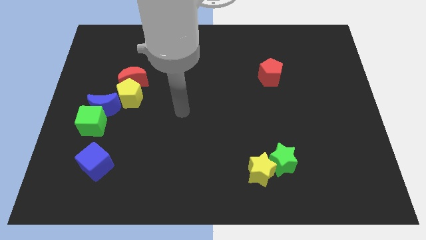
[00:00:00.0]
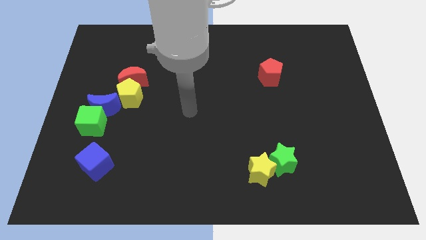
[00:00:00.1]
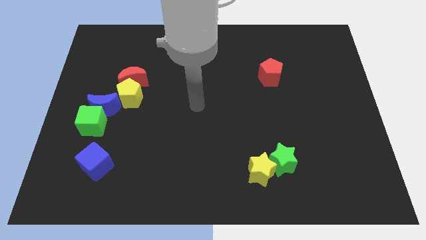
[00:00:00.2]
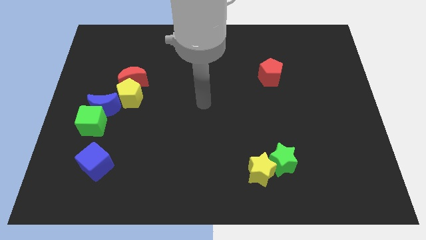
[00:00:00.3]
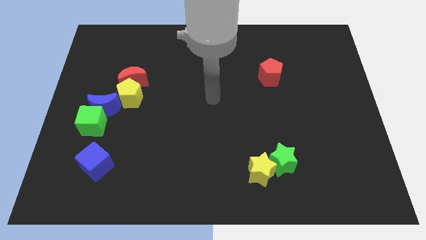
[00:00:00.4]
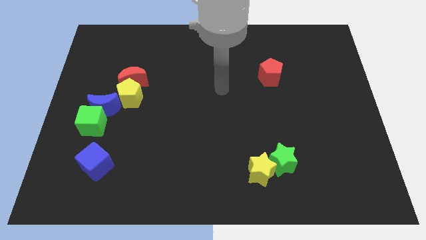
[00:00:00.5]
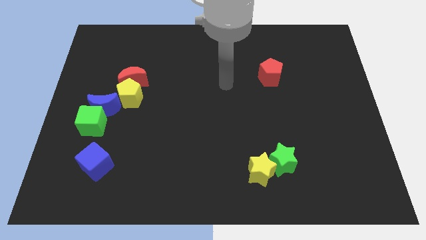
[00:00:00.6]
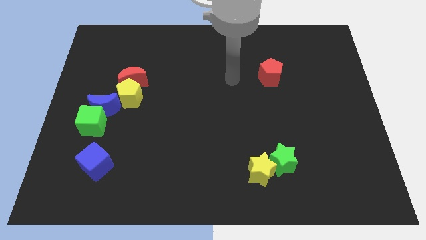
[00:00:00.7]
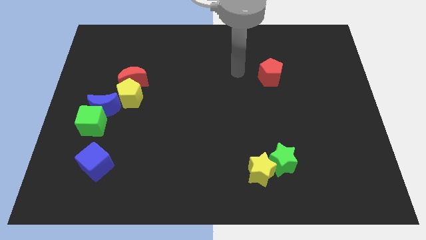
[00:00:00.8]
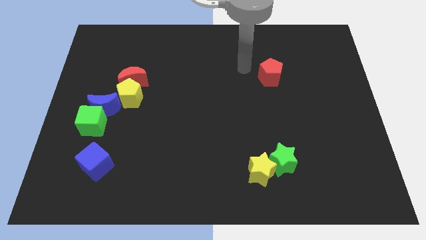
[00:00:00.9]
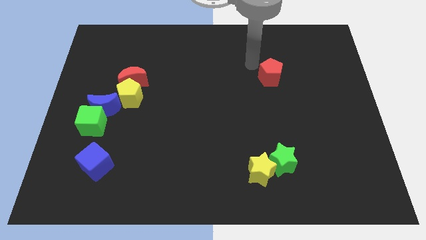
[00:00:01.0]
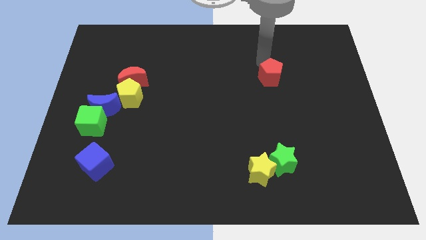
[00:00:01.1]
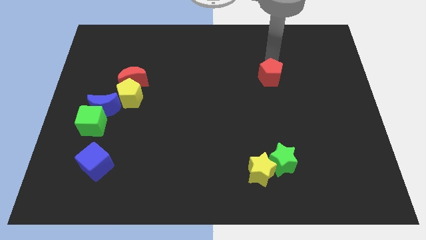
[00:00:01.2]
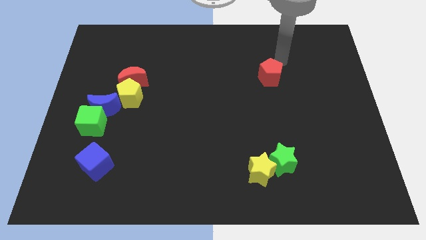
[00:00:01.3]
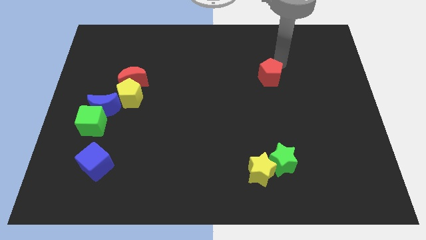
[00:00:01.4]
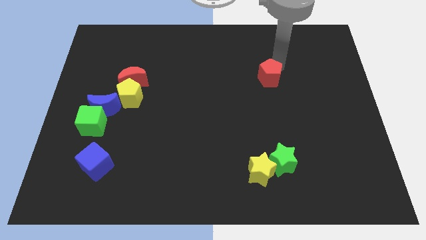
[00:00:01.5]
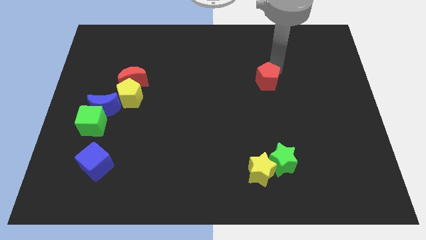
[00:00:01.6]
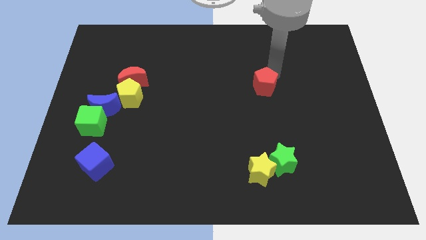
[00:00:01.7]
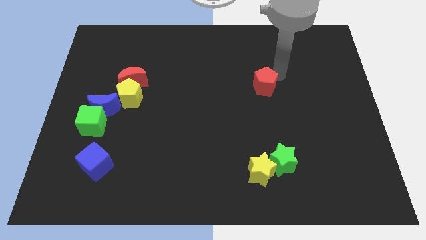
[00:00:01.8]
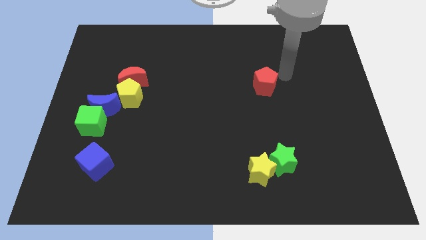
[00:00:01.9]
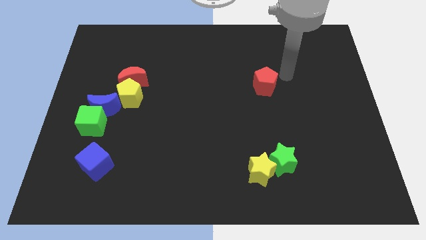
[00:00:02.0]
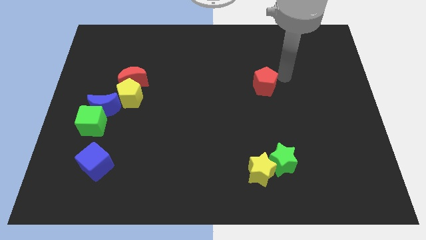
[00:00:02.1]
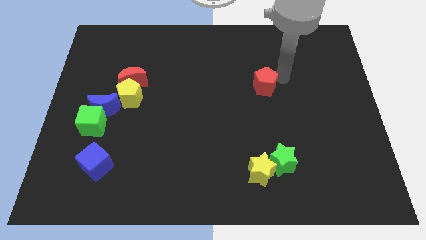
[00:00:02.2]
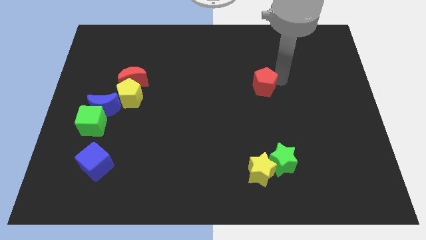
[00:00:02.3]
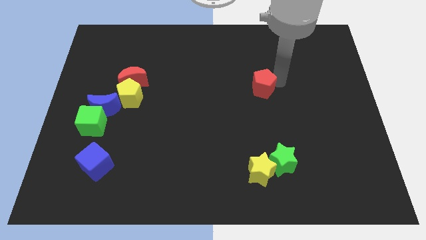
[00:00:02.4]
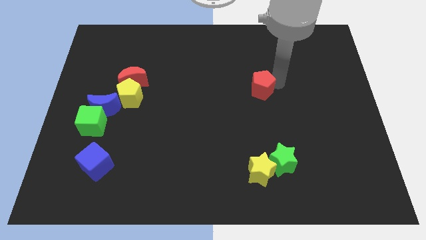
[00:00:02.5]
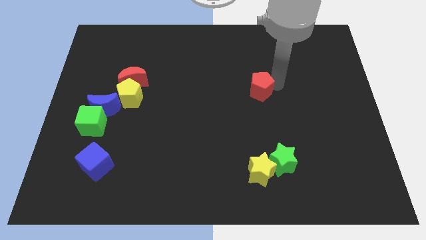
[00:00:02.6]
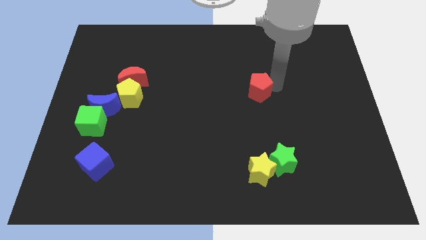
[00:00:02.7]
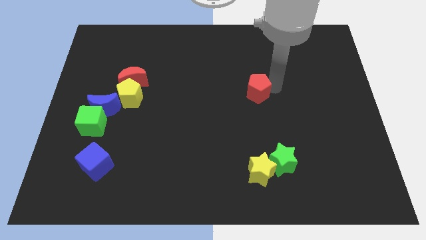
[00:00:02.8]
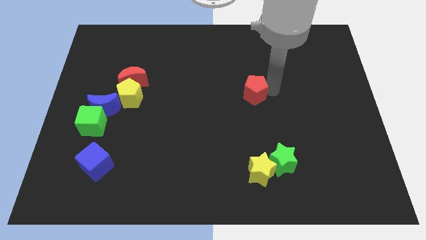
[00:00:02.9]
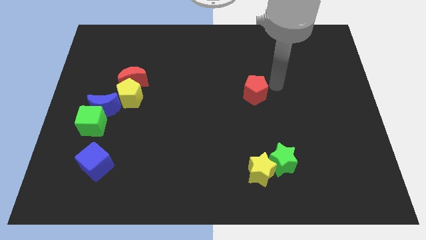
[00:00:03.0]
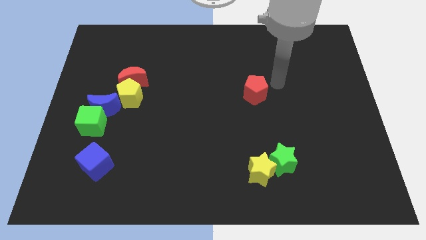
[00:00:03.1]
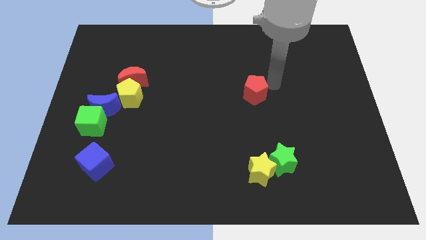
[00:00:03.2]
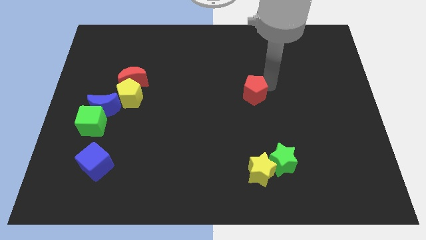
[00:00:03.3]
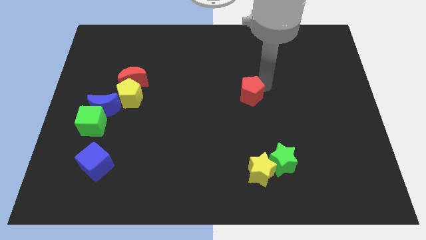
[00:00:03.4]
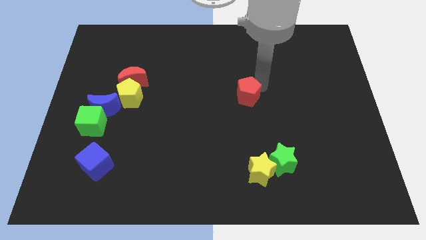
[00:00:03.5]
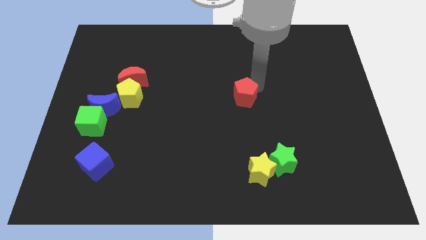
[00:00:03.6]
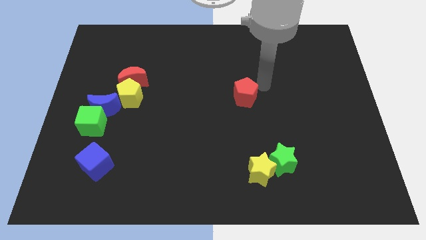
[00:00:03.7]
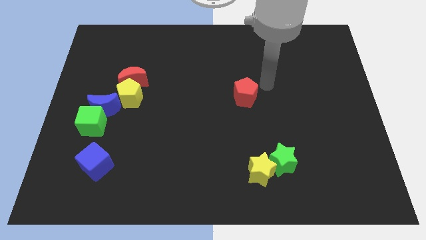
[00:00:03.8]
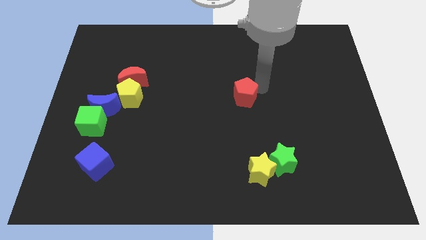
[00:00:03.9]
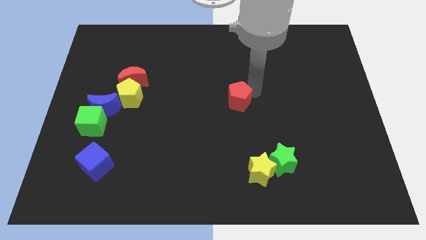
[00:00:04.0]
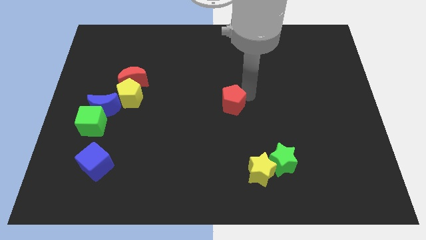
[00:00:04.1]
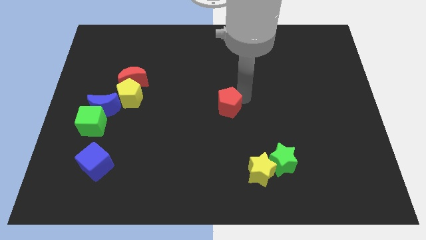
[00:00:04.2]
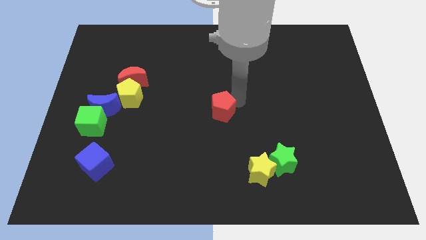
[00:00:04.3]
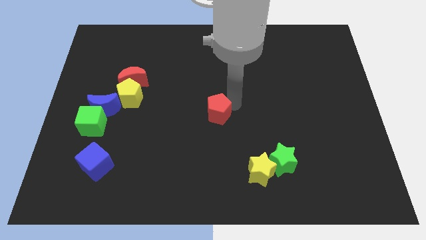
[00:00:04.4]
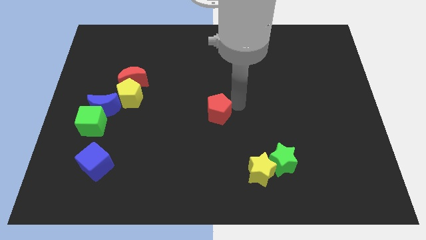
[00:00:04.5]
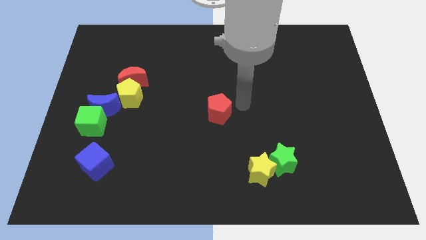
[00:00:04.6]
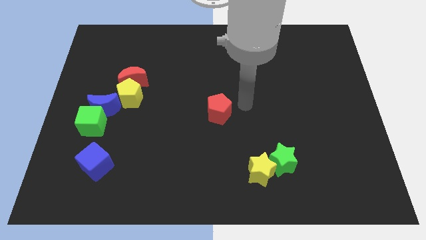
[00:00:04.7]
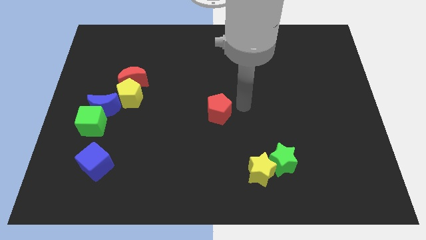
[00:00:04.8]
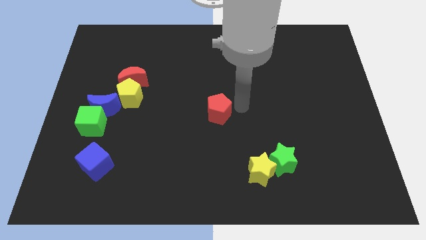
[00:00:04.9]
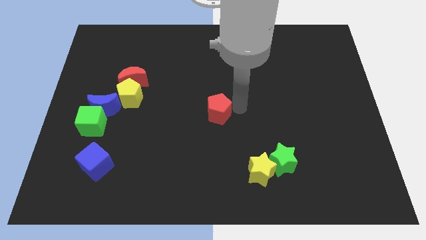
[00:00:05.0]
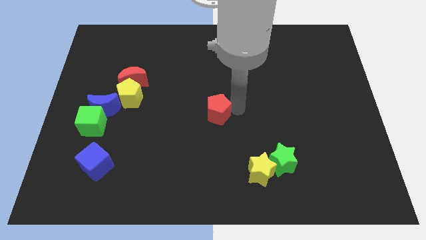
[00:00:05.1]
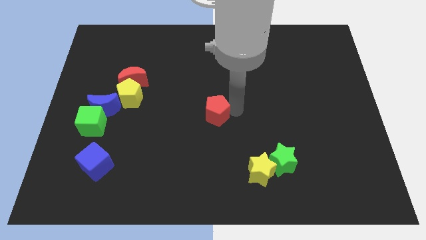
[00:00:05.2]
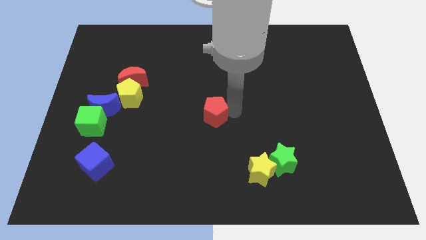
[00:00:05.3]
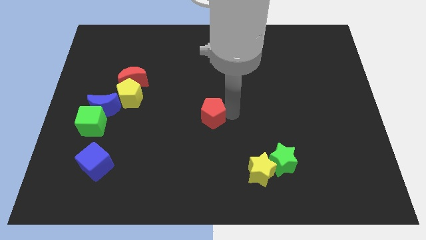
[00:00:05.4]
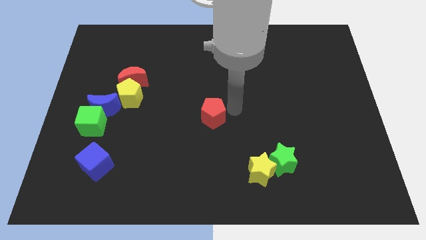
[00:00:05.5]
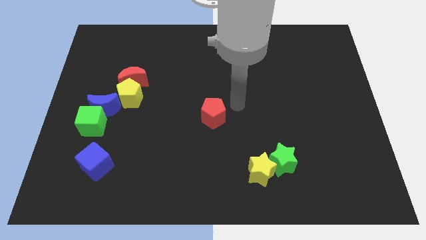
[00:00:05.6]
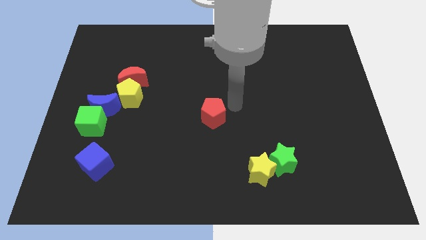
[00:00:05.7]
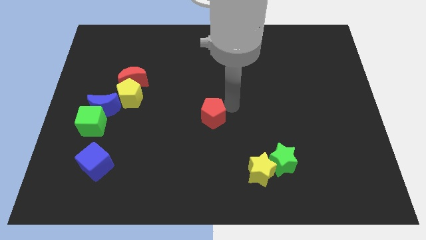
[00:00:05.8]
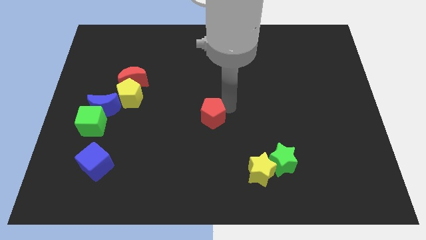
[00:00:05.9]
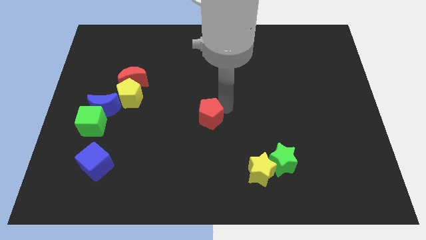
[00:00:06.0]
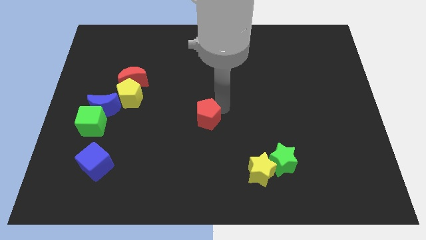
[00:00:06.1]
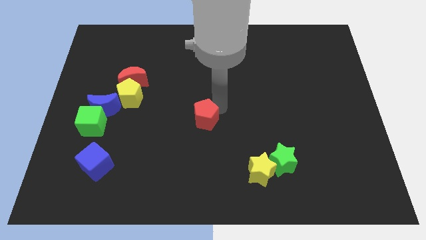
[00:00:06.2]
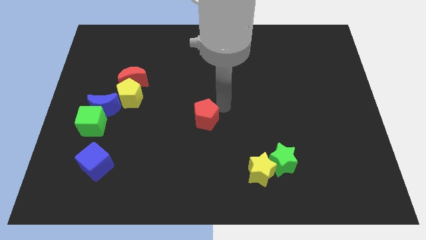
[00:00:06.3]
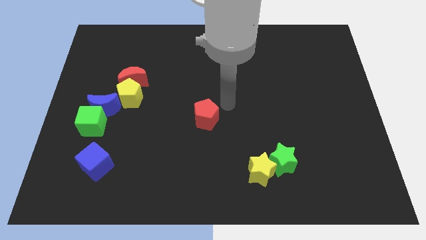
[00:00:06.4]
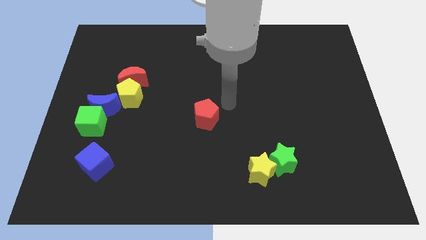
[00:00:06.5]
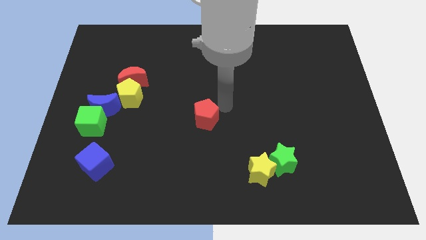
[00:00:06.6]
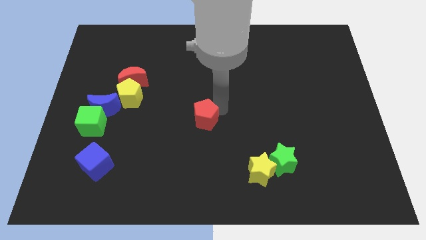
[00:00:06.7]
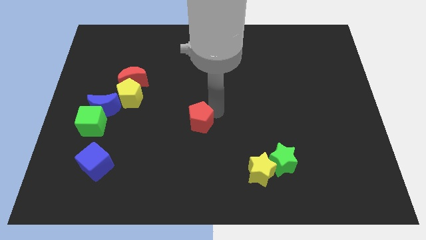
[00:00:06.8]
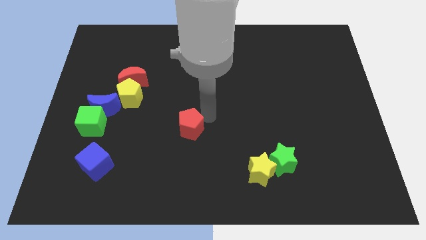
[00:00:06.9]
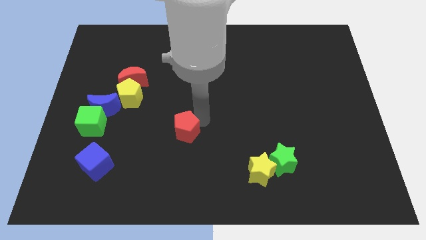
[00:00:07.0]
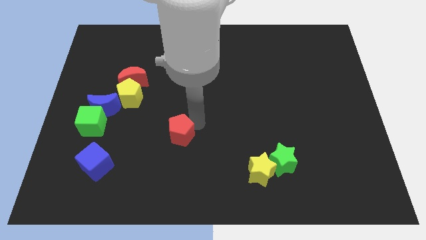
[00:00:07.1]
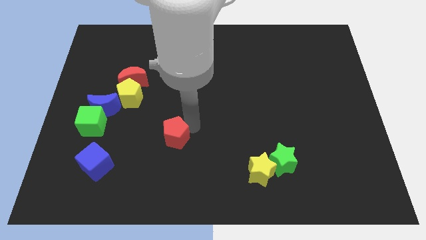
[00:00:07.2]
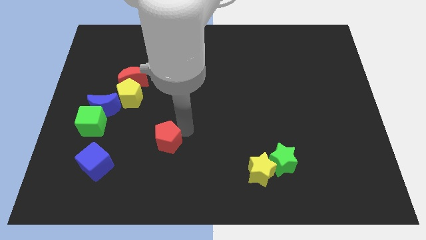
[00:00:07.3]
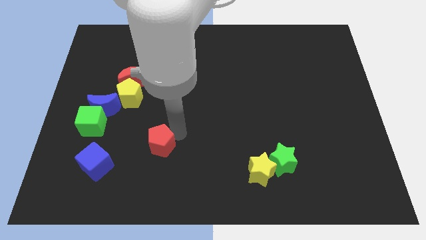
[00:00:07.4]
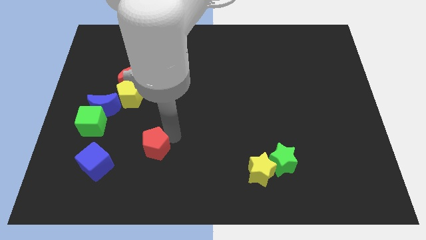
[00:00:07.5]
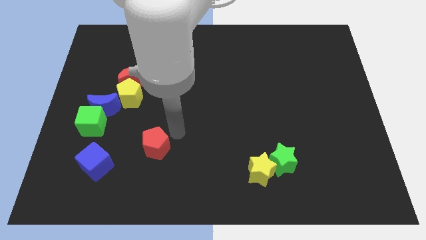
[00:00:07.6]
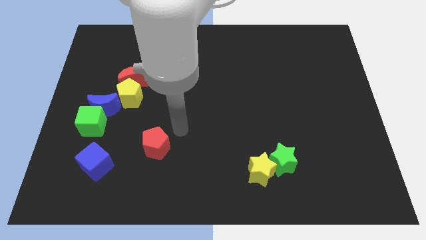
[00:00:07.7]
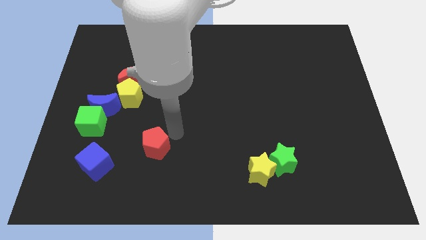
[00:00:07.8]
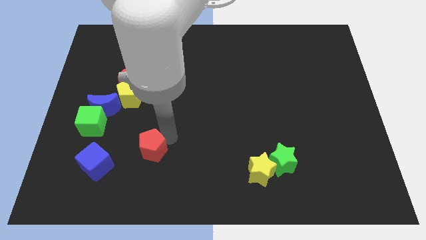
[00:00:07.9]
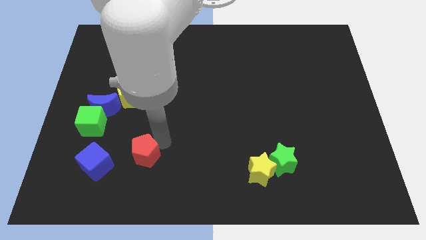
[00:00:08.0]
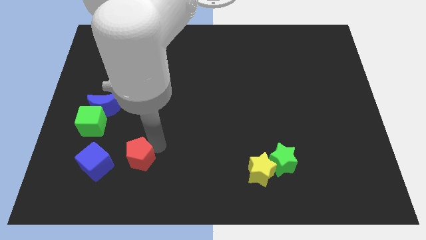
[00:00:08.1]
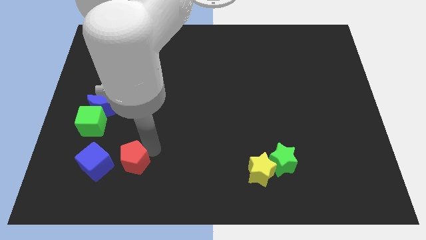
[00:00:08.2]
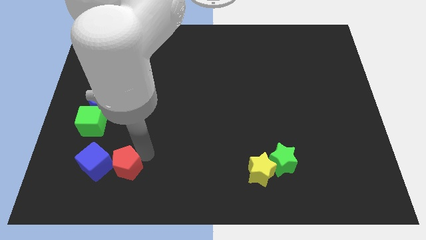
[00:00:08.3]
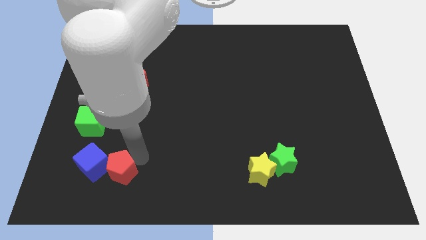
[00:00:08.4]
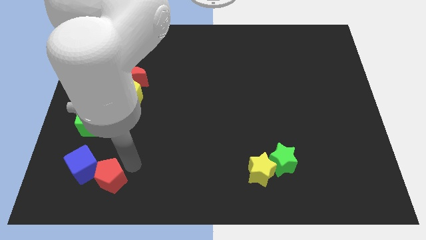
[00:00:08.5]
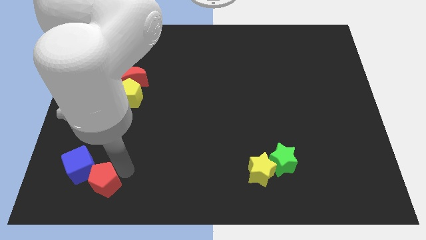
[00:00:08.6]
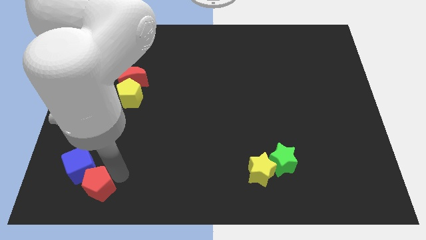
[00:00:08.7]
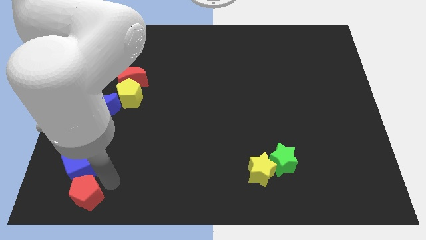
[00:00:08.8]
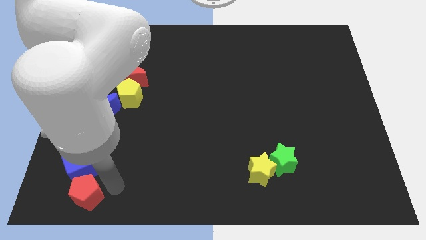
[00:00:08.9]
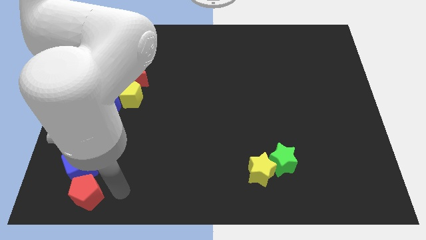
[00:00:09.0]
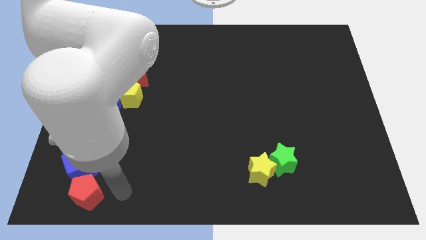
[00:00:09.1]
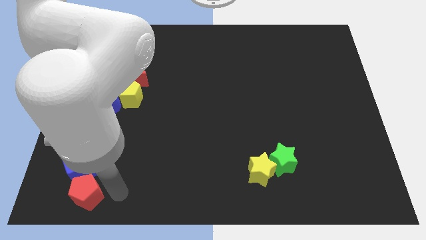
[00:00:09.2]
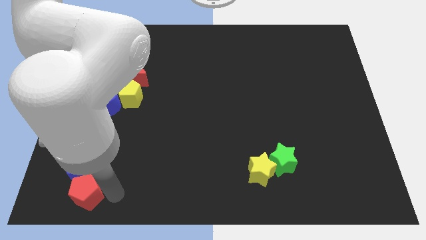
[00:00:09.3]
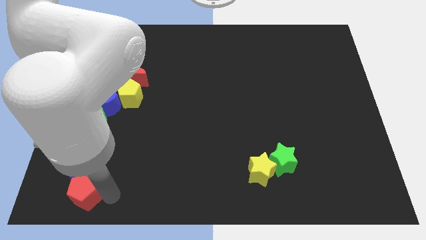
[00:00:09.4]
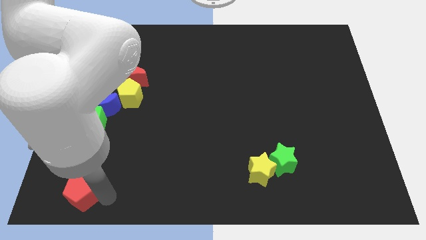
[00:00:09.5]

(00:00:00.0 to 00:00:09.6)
push the red pentagon to the lower left corner
